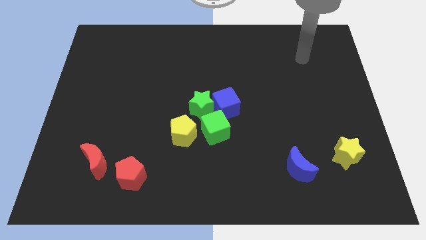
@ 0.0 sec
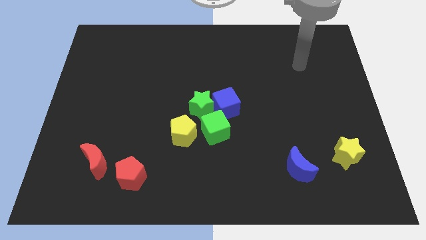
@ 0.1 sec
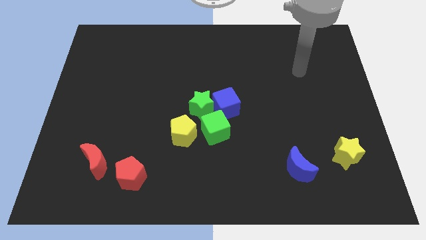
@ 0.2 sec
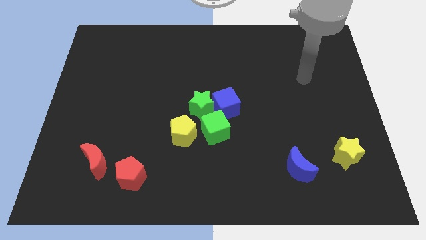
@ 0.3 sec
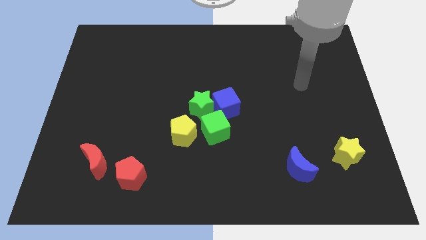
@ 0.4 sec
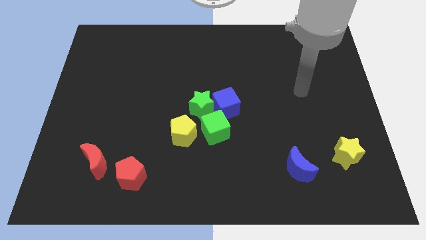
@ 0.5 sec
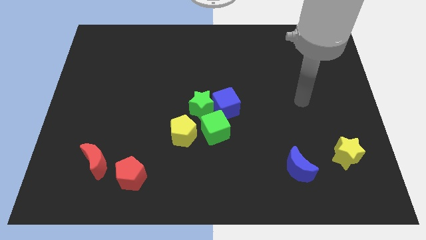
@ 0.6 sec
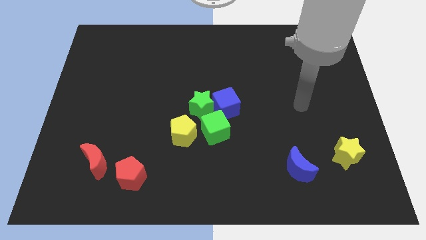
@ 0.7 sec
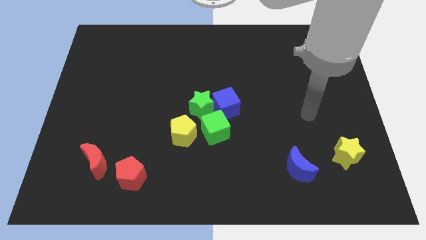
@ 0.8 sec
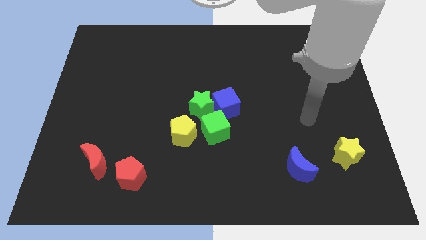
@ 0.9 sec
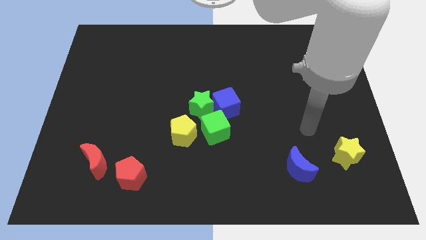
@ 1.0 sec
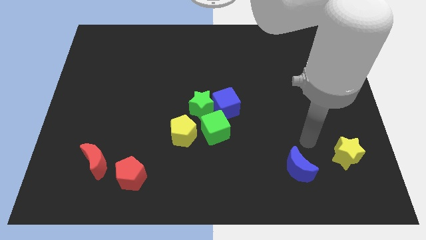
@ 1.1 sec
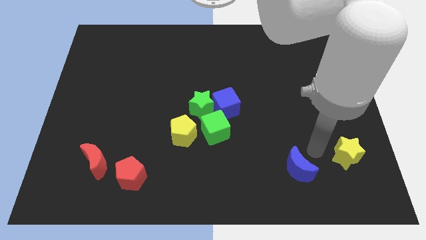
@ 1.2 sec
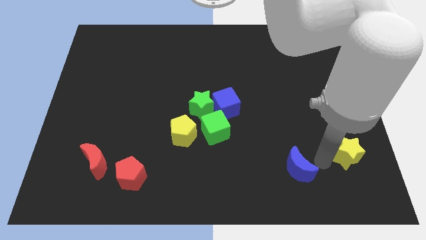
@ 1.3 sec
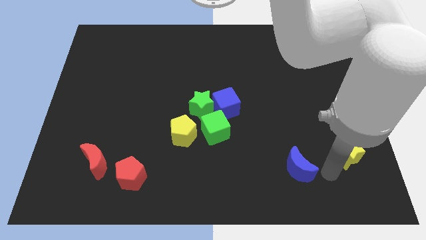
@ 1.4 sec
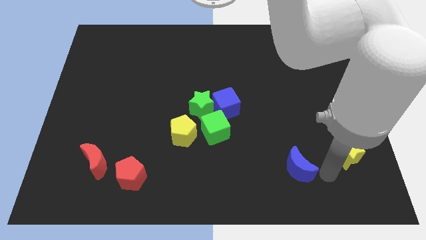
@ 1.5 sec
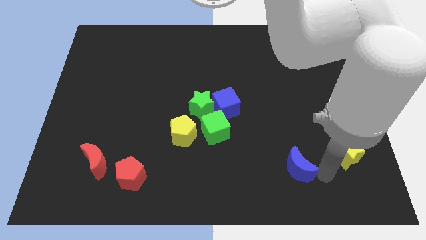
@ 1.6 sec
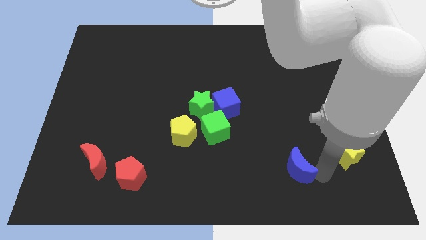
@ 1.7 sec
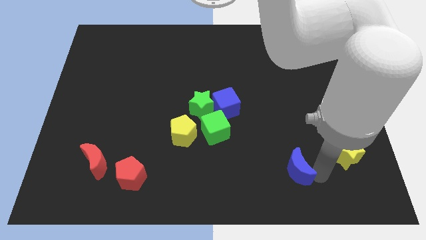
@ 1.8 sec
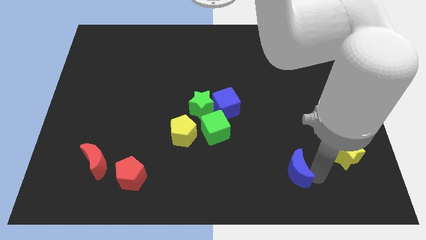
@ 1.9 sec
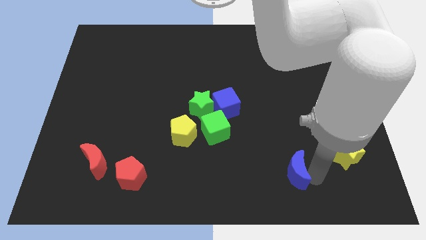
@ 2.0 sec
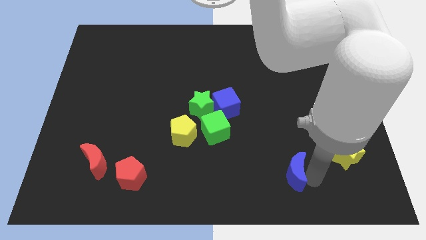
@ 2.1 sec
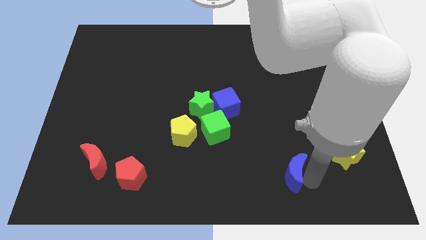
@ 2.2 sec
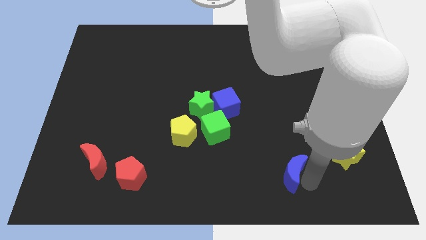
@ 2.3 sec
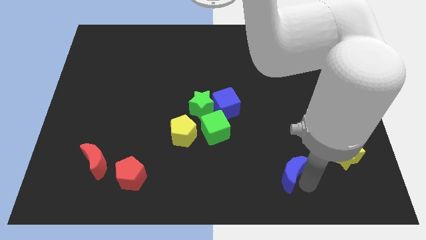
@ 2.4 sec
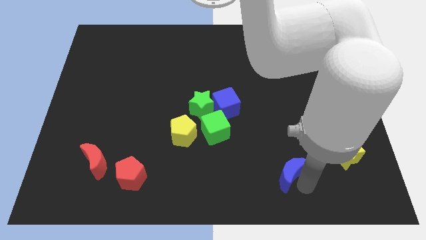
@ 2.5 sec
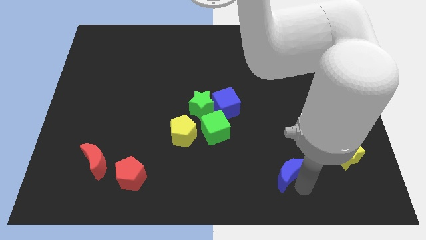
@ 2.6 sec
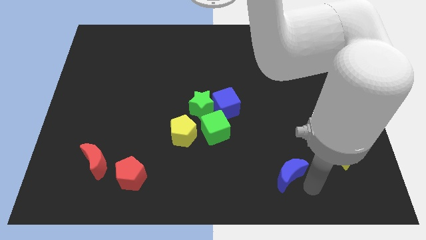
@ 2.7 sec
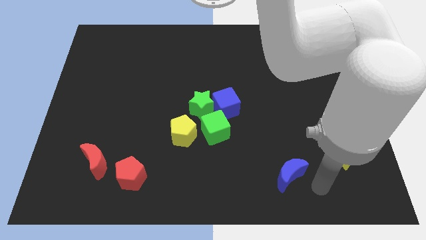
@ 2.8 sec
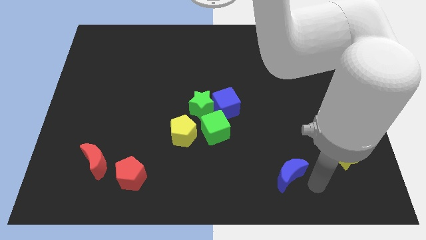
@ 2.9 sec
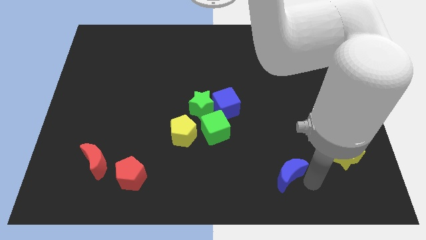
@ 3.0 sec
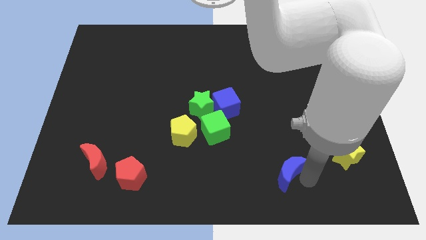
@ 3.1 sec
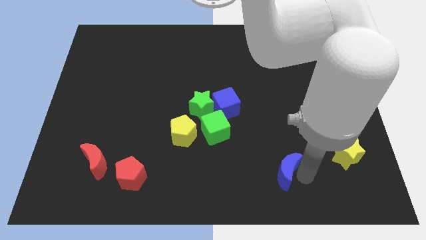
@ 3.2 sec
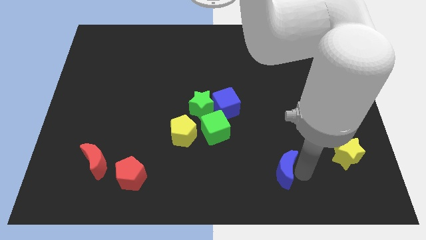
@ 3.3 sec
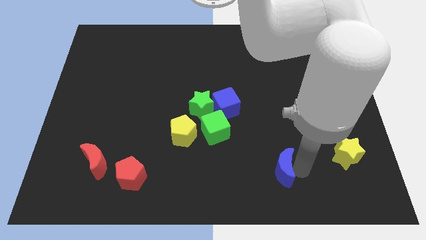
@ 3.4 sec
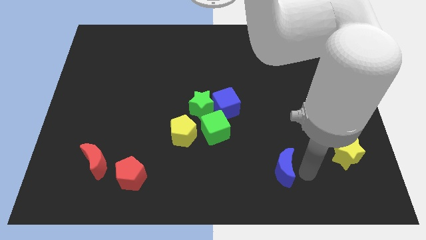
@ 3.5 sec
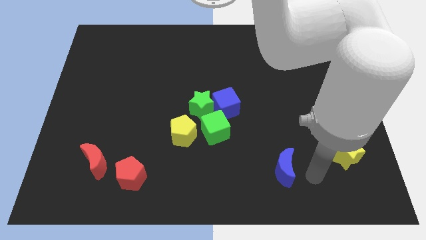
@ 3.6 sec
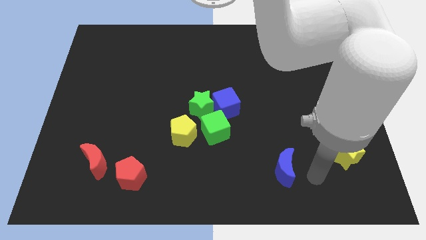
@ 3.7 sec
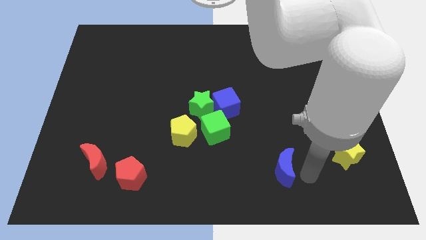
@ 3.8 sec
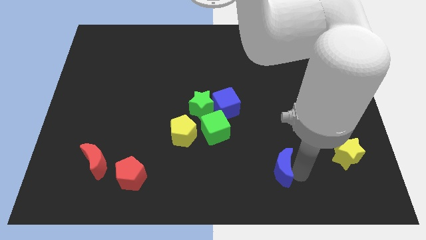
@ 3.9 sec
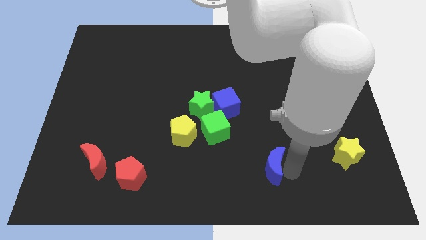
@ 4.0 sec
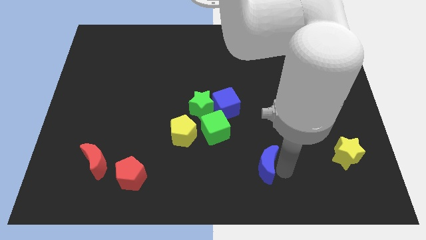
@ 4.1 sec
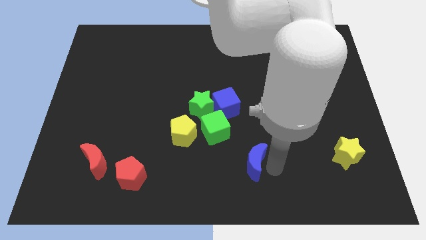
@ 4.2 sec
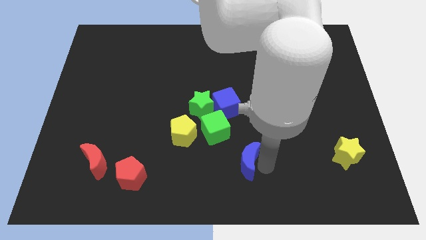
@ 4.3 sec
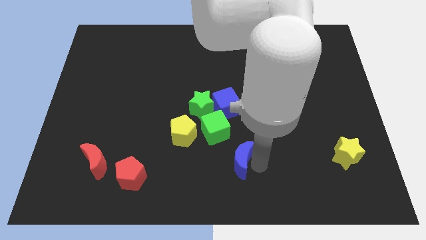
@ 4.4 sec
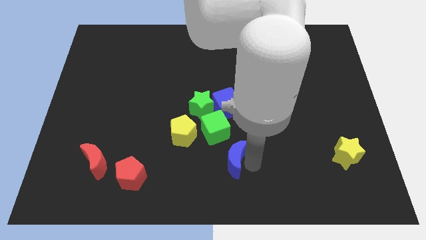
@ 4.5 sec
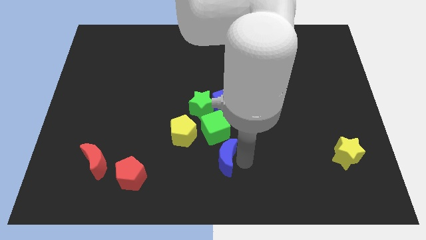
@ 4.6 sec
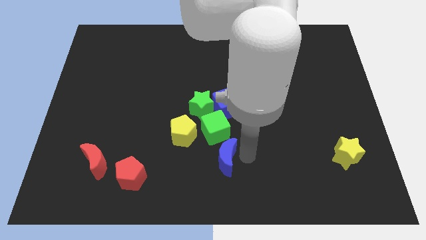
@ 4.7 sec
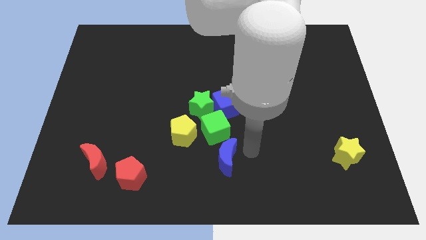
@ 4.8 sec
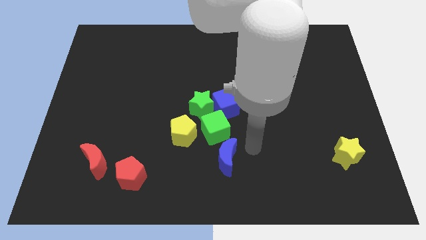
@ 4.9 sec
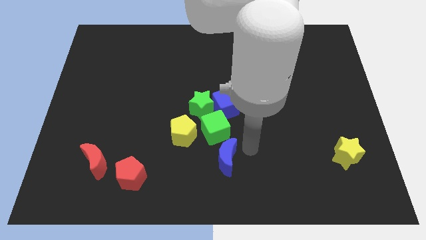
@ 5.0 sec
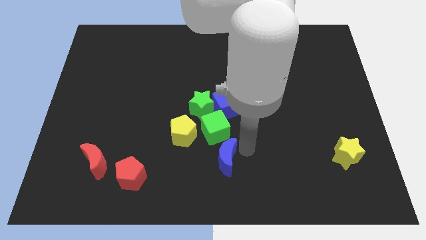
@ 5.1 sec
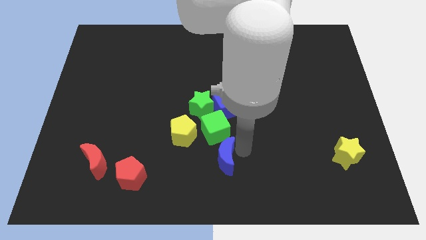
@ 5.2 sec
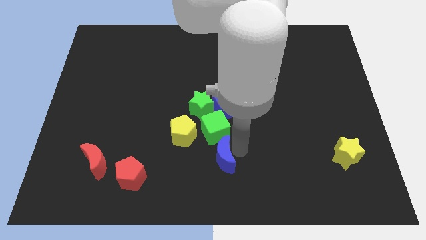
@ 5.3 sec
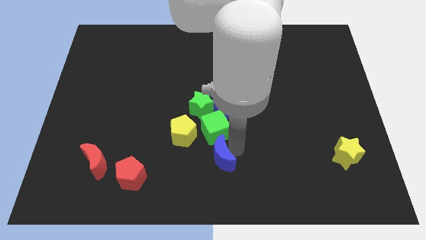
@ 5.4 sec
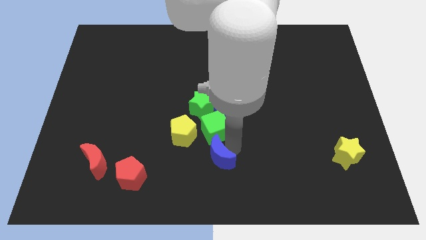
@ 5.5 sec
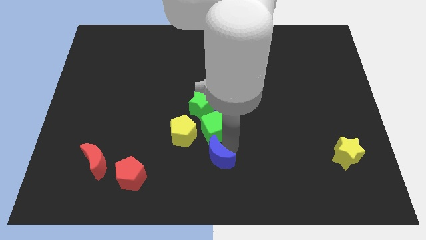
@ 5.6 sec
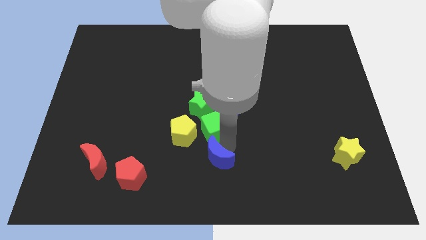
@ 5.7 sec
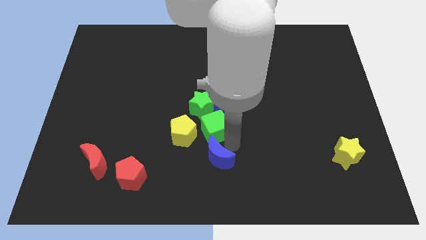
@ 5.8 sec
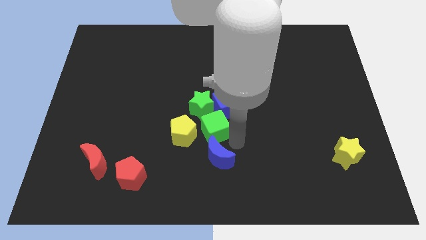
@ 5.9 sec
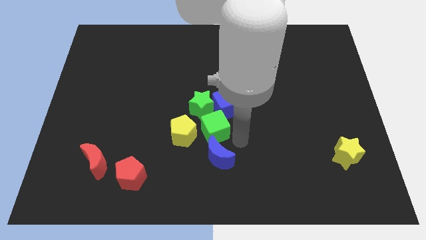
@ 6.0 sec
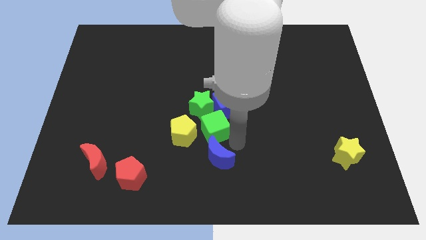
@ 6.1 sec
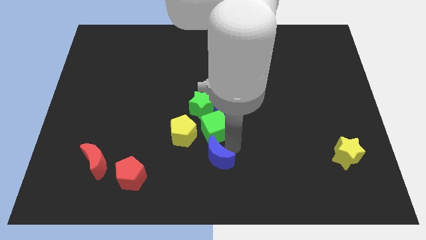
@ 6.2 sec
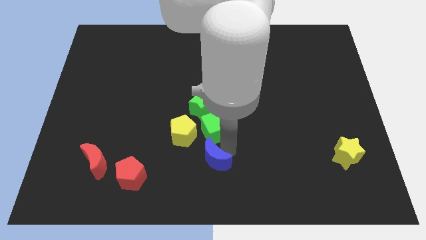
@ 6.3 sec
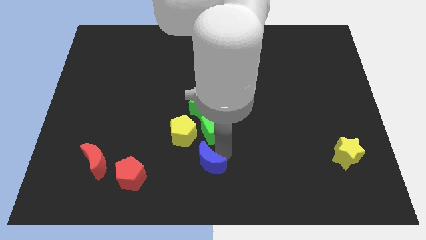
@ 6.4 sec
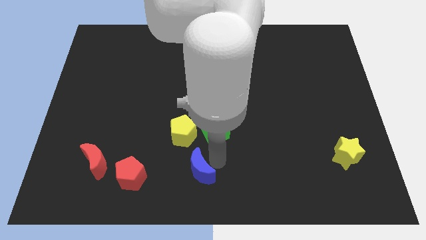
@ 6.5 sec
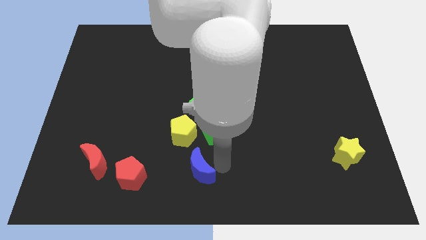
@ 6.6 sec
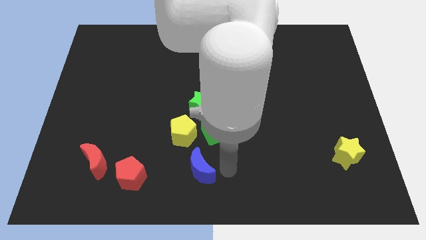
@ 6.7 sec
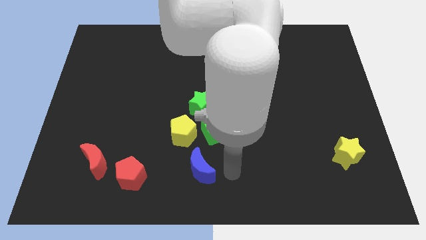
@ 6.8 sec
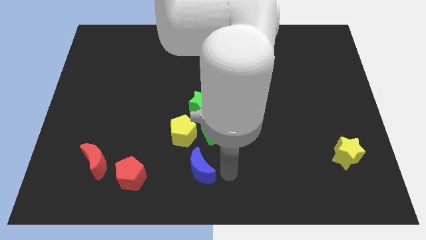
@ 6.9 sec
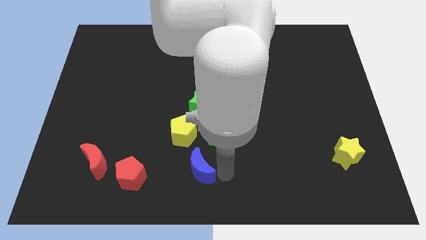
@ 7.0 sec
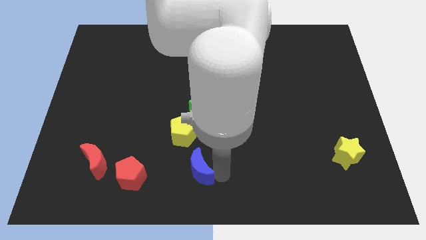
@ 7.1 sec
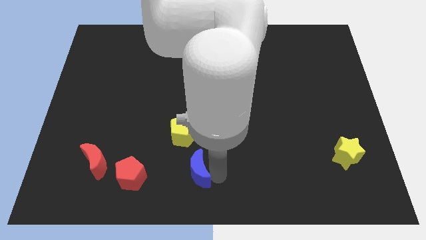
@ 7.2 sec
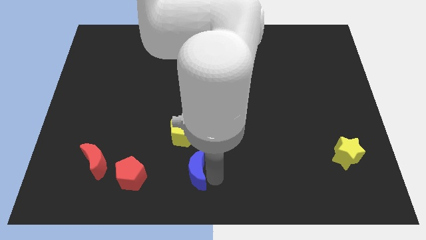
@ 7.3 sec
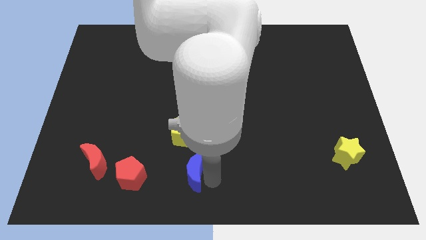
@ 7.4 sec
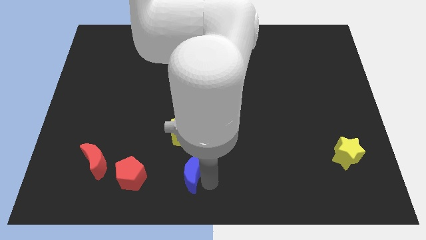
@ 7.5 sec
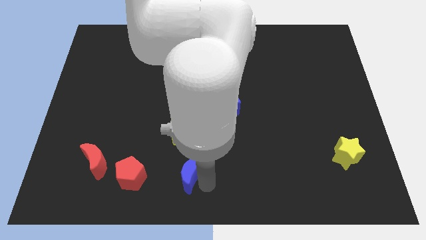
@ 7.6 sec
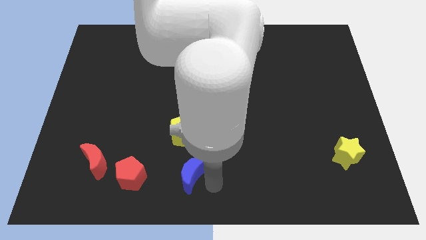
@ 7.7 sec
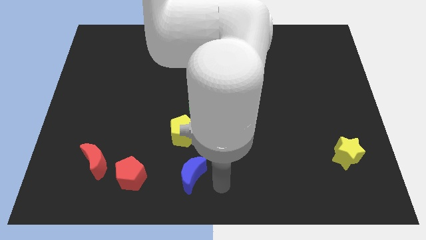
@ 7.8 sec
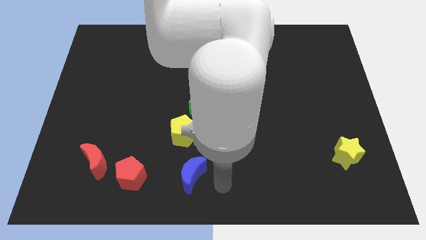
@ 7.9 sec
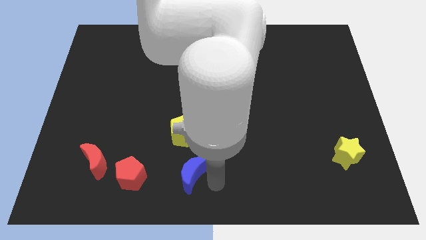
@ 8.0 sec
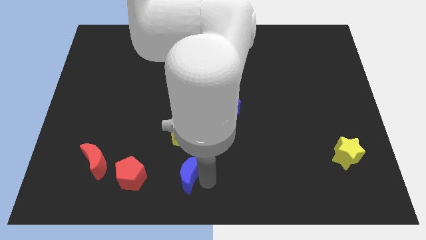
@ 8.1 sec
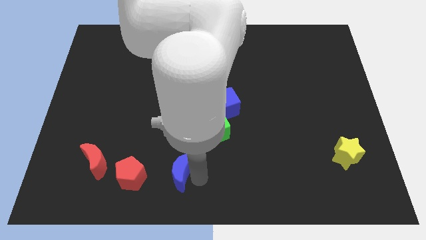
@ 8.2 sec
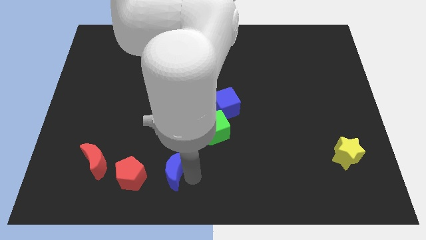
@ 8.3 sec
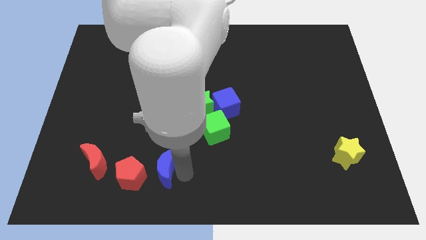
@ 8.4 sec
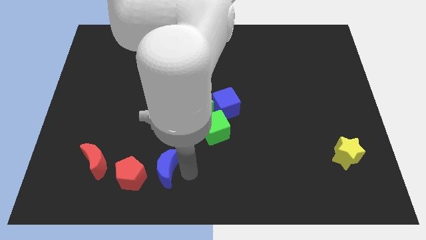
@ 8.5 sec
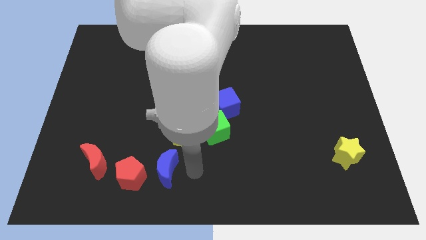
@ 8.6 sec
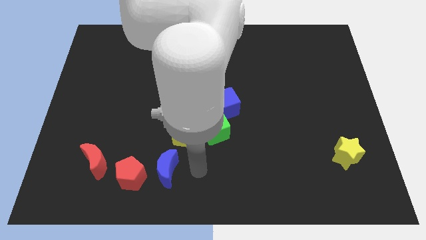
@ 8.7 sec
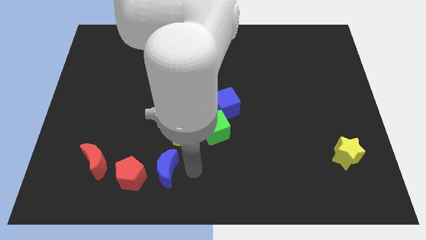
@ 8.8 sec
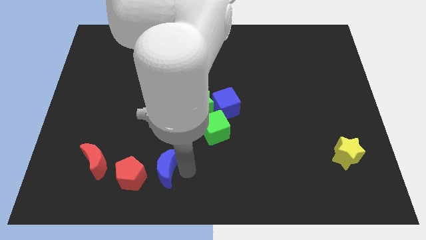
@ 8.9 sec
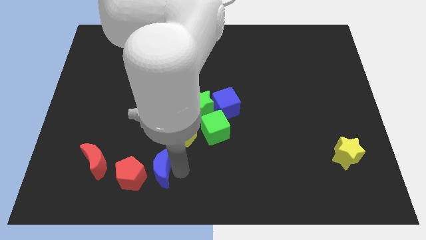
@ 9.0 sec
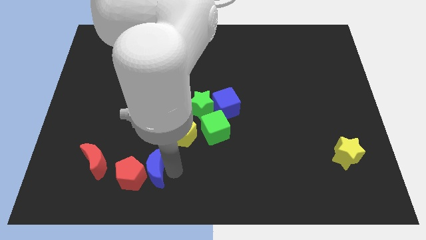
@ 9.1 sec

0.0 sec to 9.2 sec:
push the blue moon next to the red pentagon
